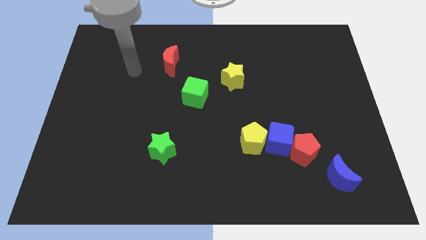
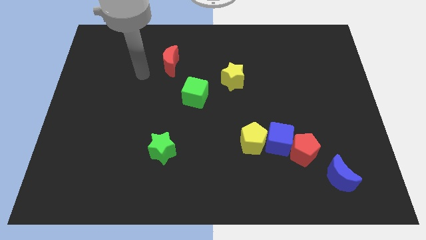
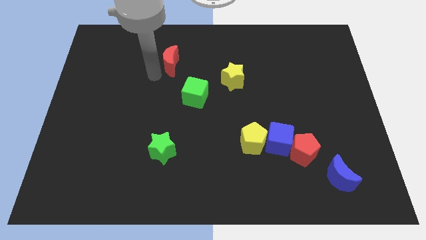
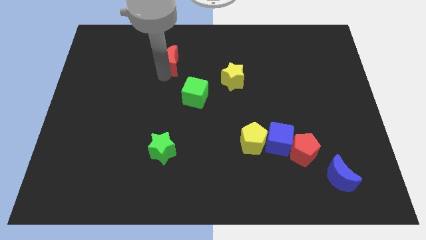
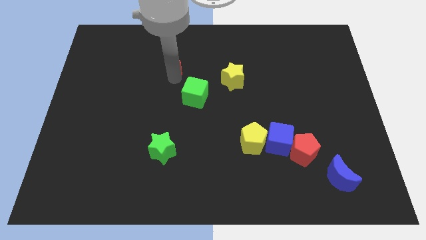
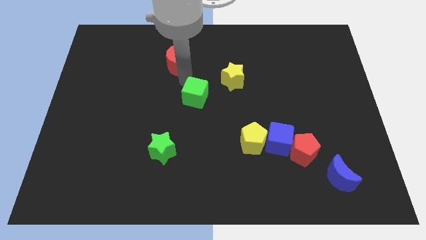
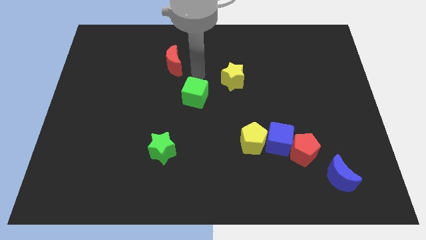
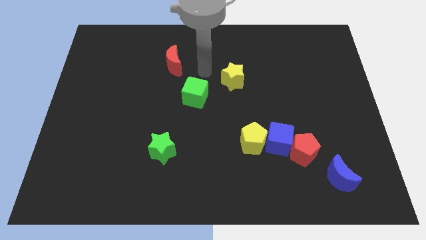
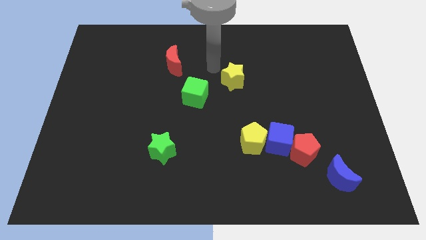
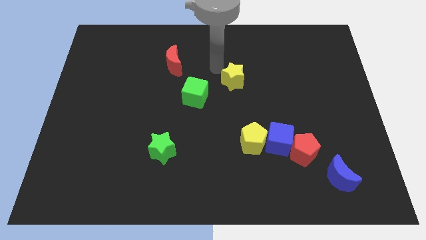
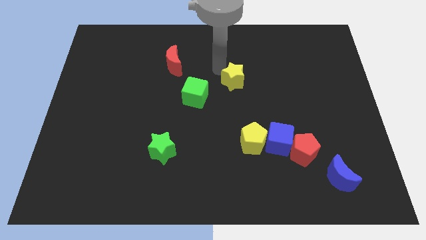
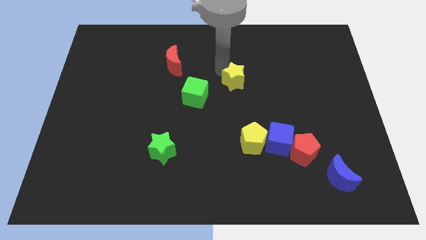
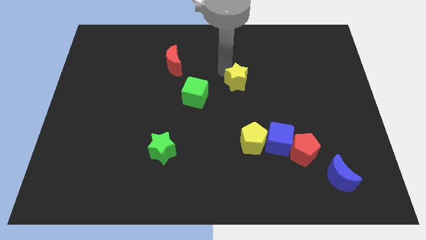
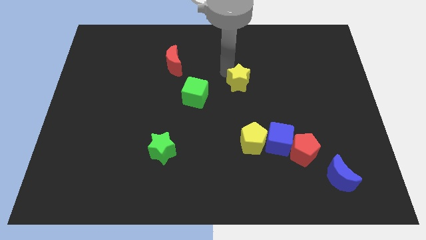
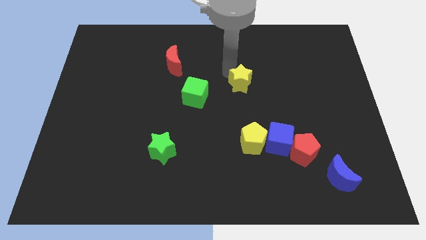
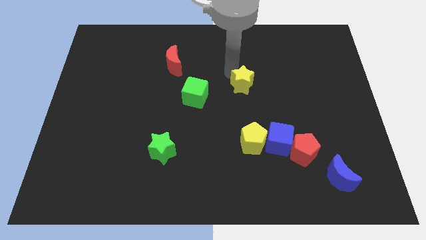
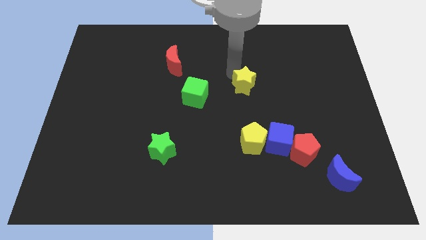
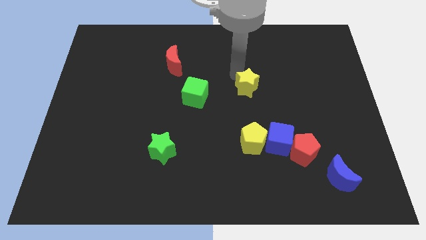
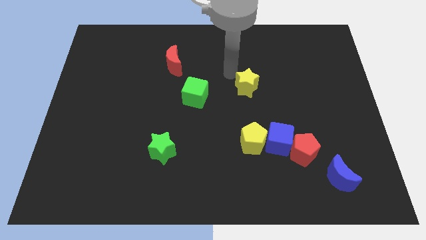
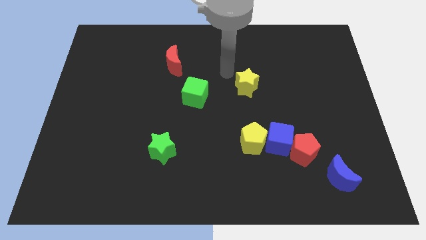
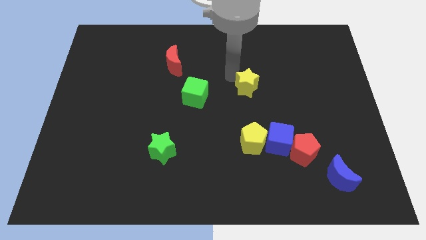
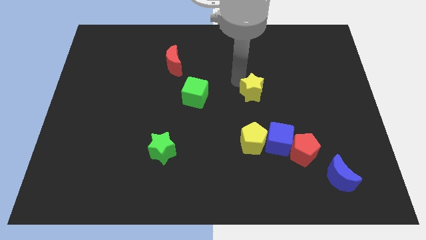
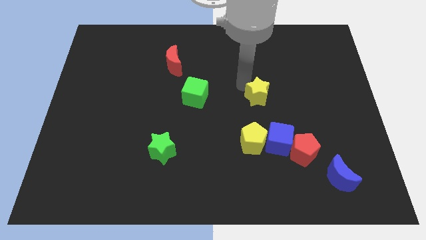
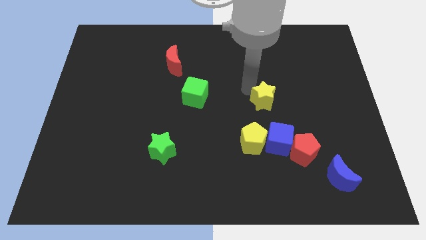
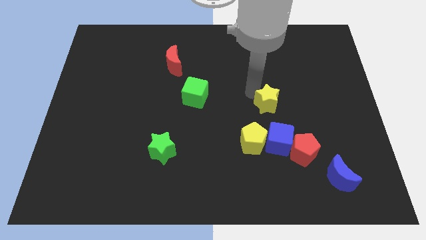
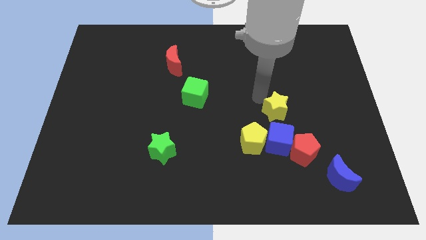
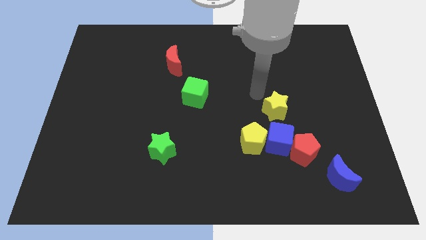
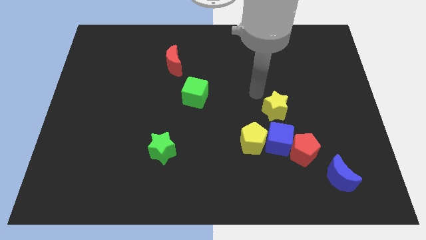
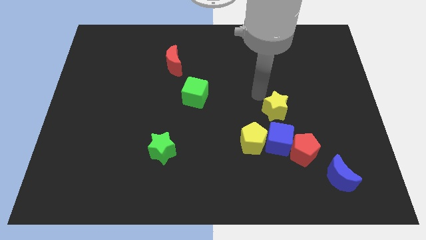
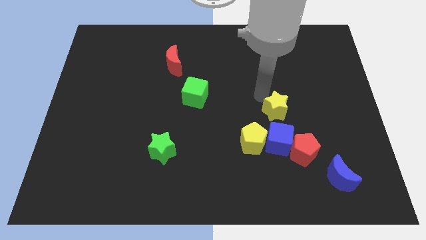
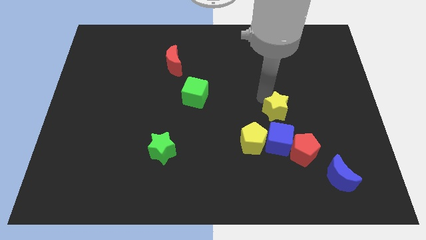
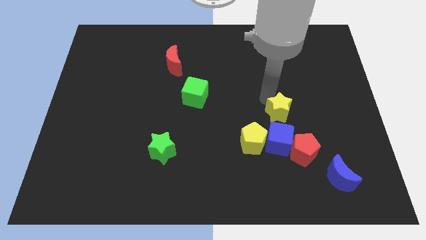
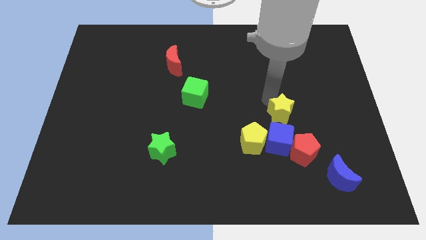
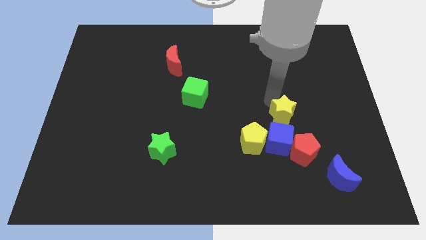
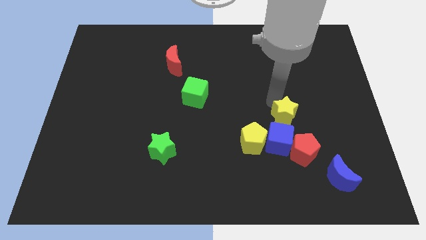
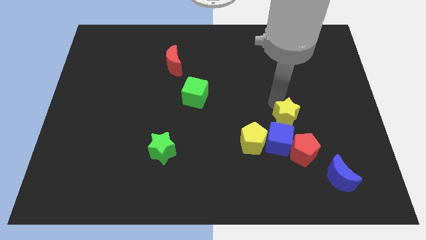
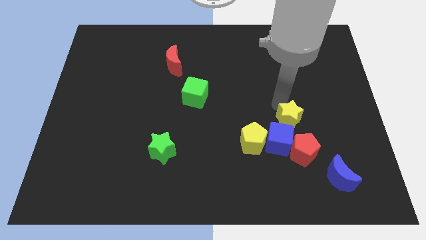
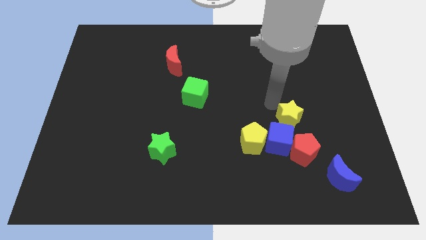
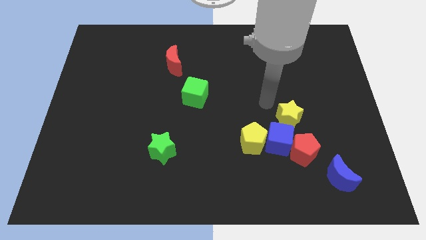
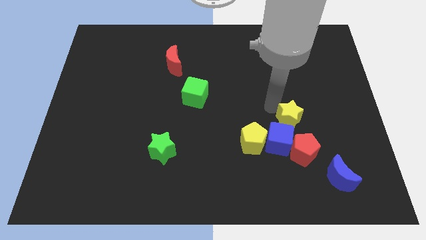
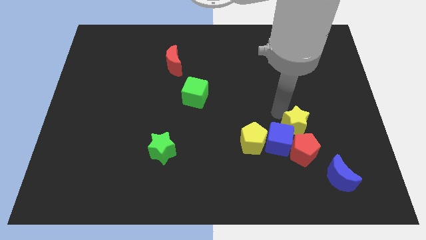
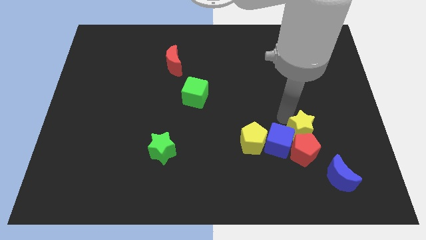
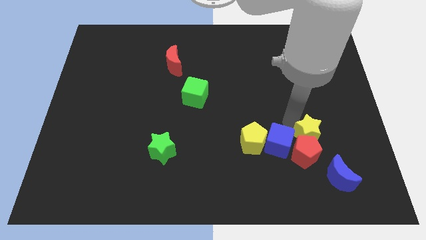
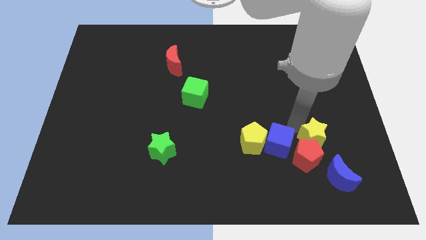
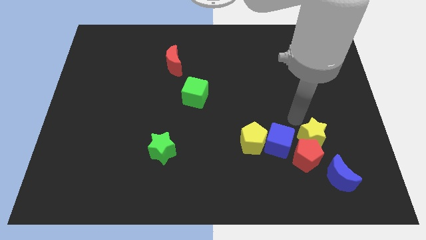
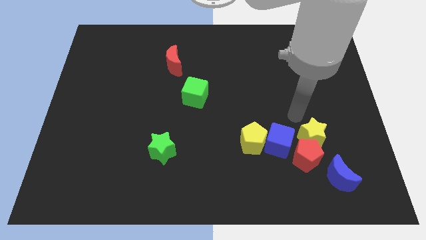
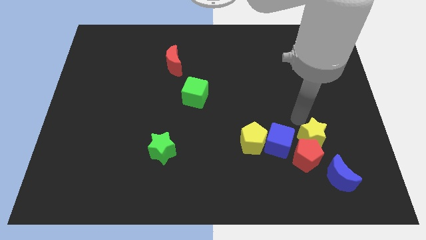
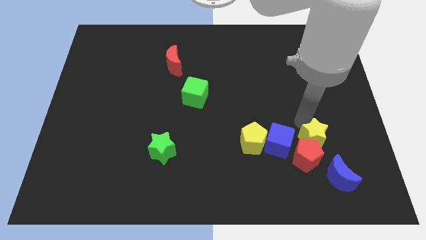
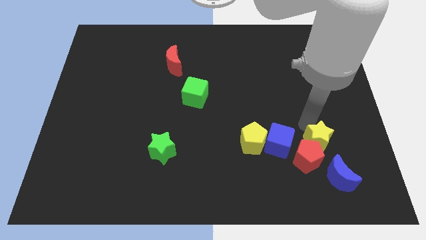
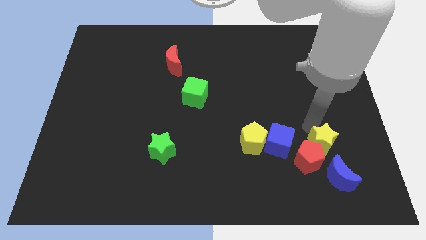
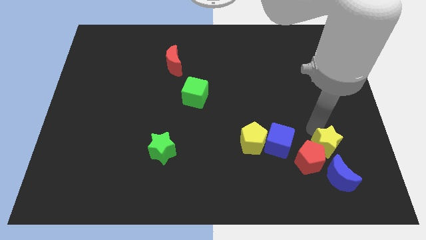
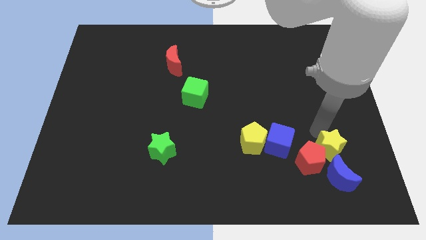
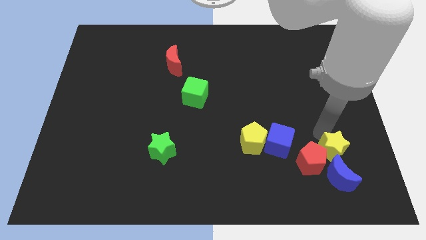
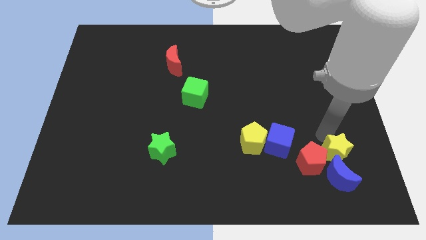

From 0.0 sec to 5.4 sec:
put the yellow star close to the blue moon

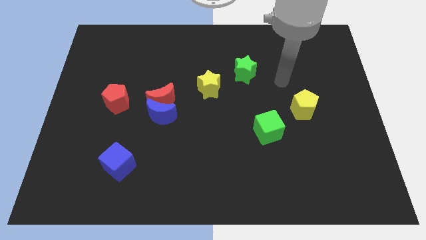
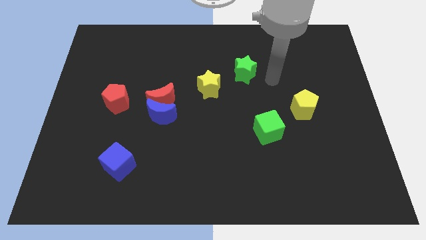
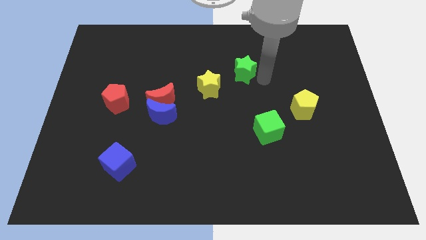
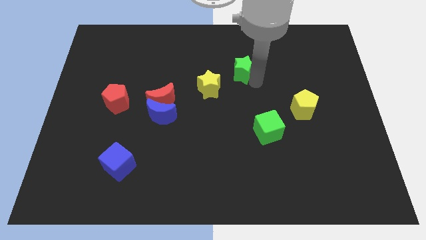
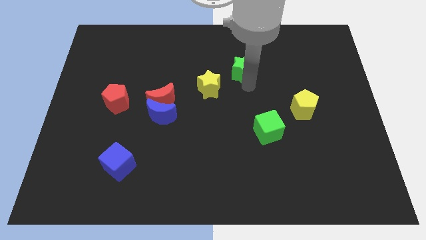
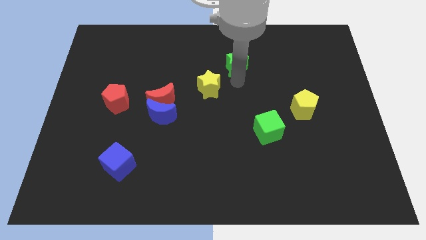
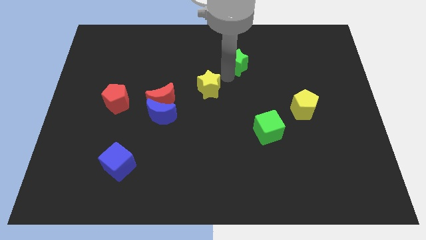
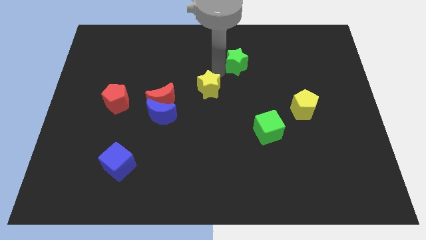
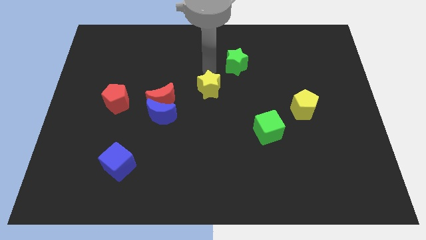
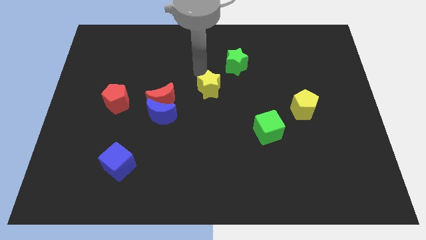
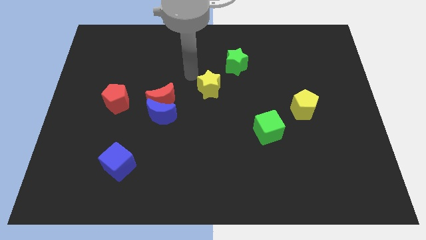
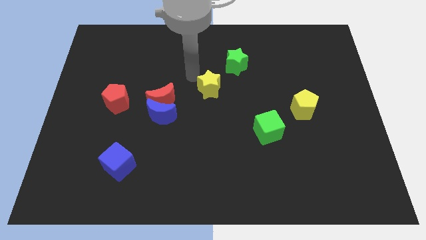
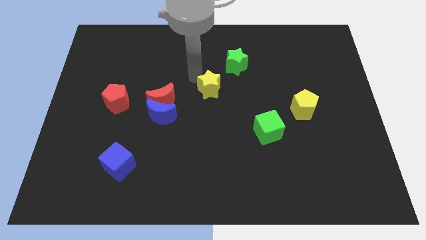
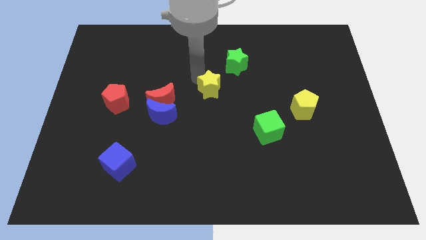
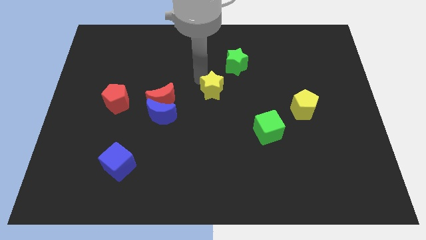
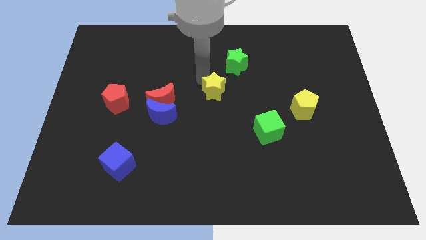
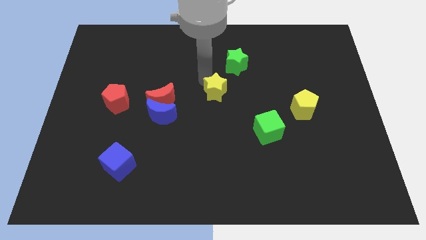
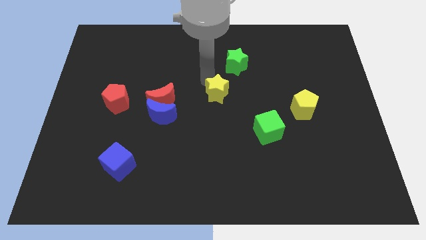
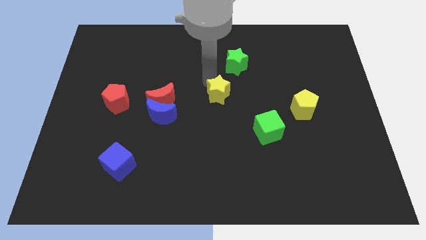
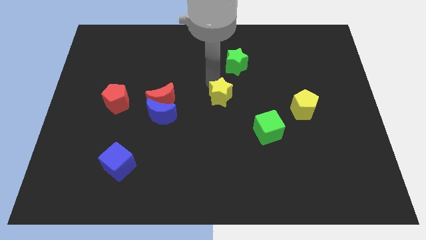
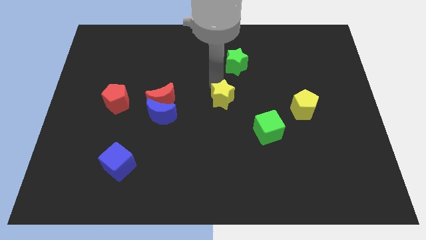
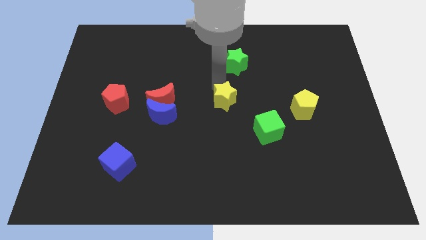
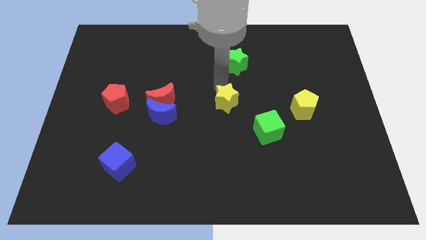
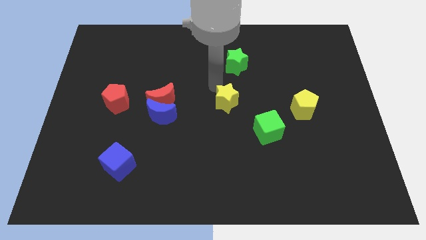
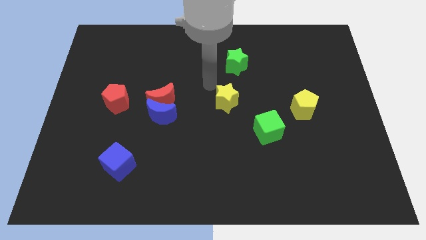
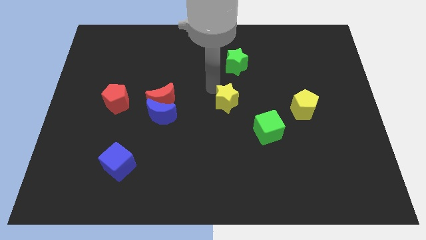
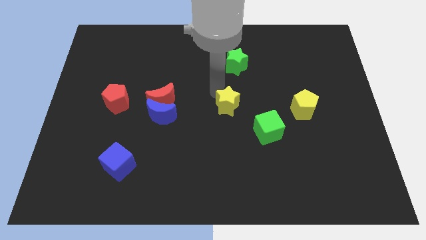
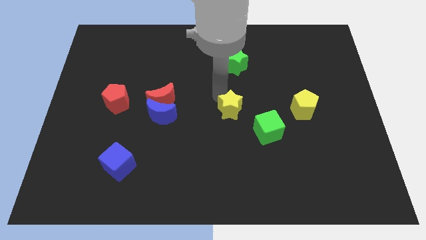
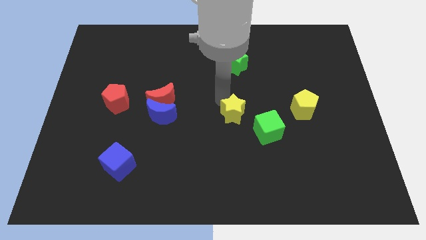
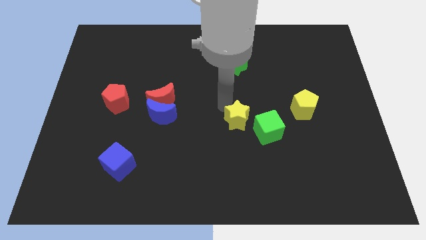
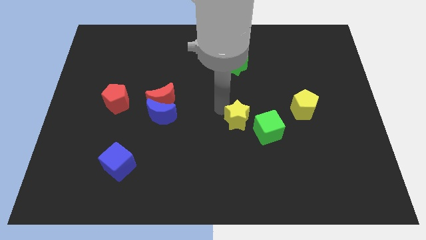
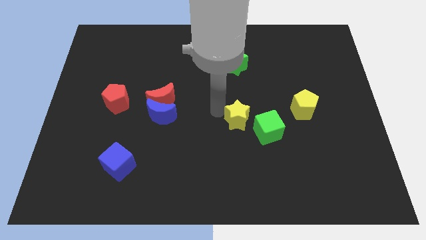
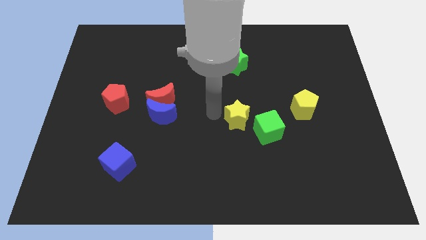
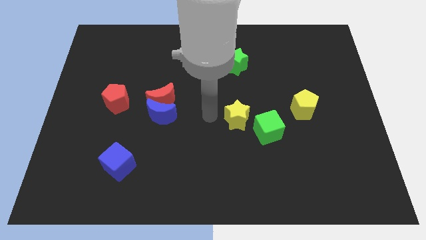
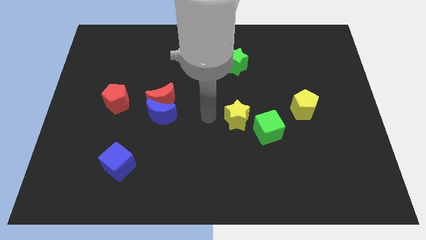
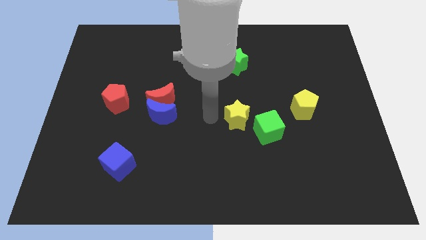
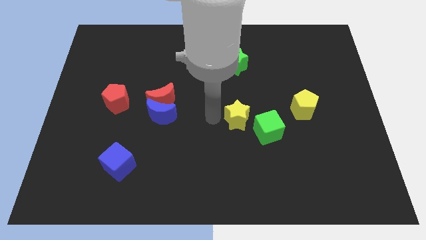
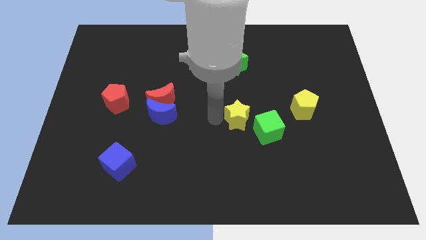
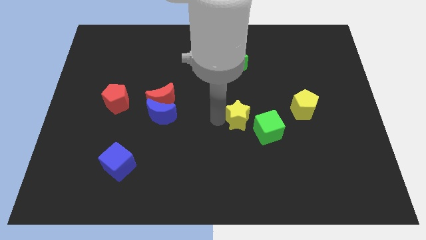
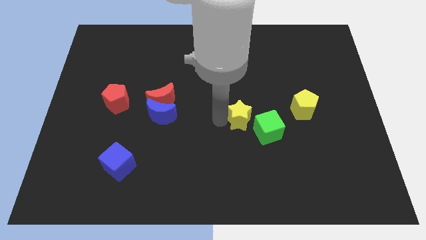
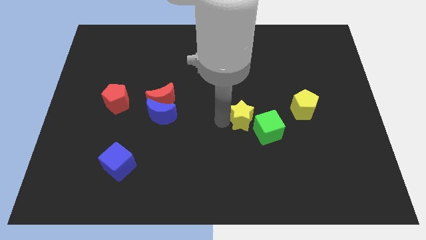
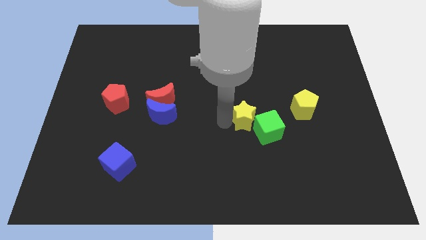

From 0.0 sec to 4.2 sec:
put the yellow star close to the green cube
